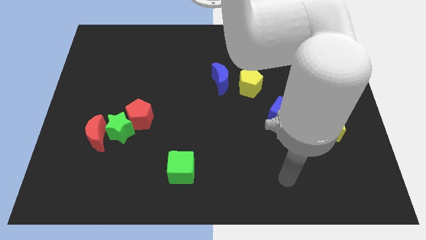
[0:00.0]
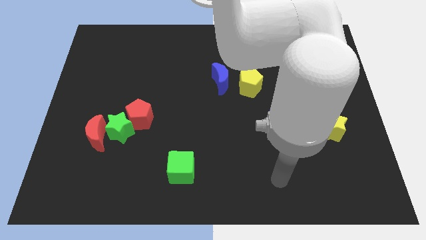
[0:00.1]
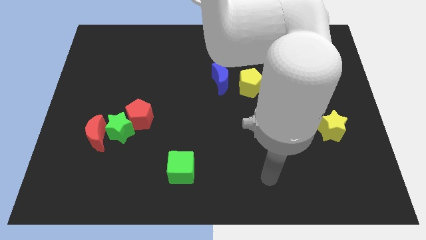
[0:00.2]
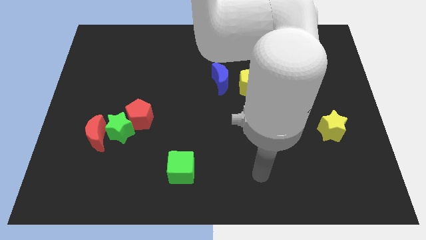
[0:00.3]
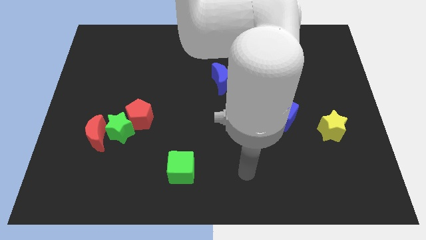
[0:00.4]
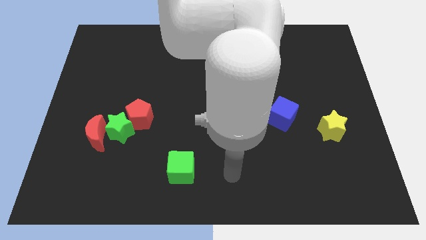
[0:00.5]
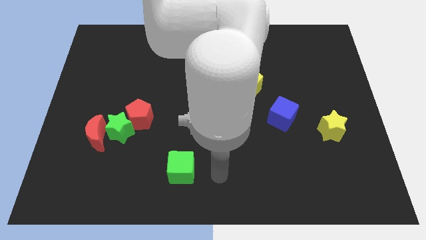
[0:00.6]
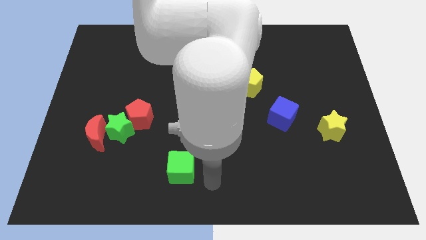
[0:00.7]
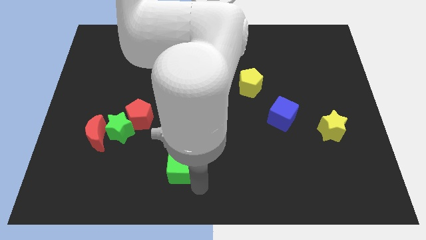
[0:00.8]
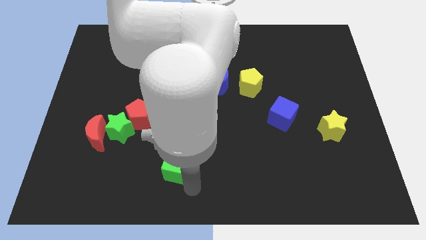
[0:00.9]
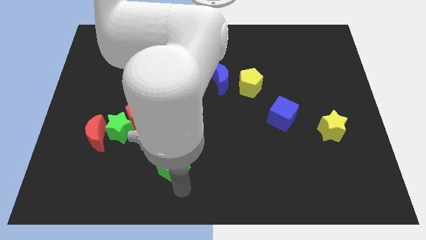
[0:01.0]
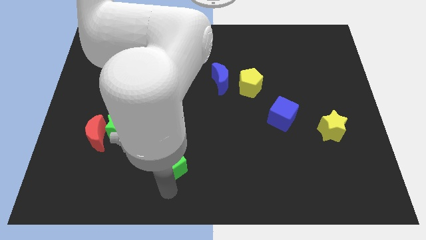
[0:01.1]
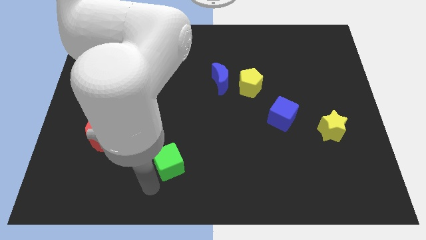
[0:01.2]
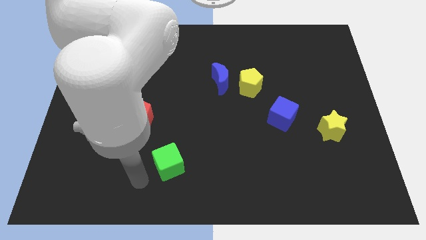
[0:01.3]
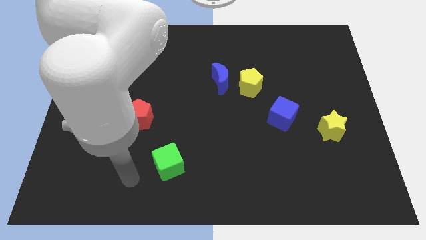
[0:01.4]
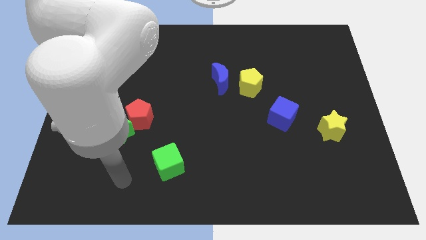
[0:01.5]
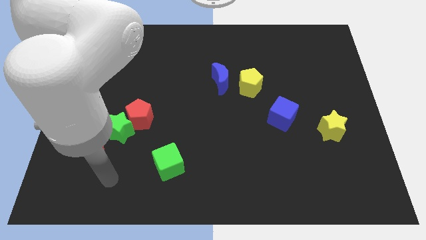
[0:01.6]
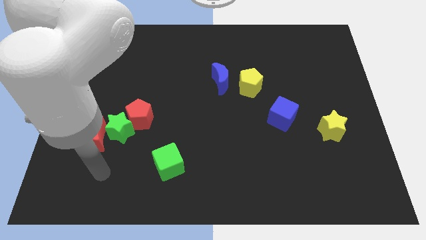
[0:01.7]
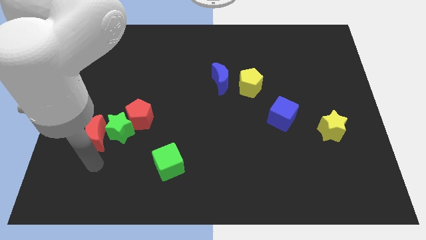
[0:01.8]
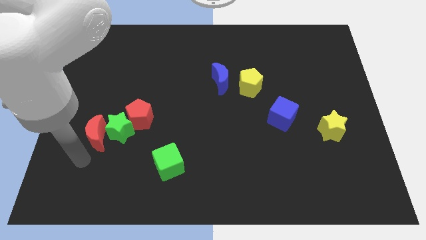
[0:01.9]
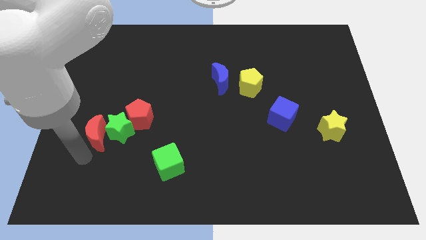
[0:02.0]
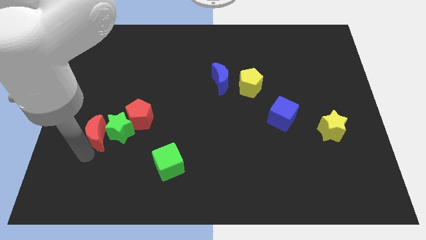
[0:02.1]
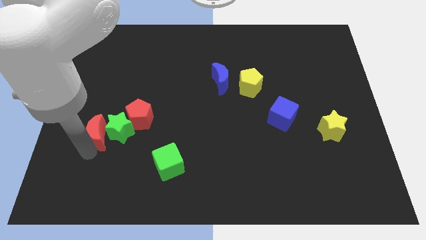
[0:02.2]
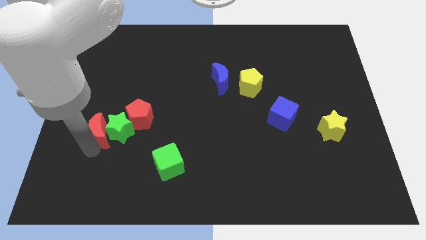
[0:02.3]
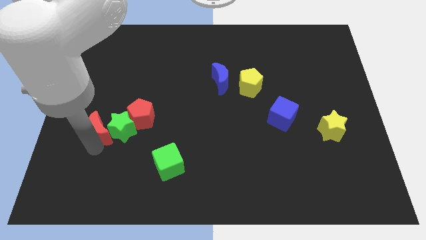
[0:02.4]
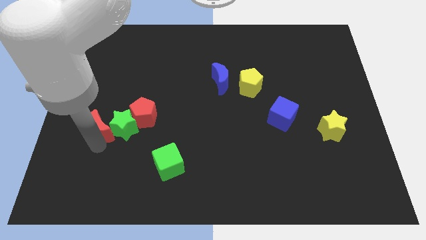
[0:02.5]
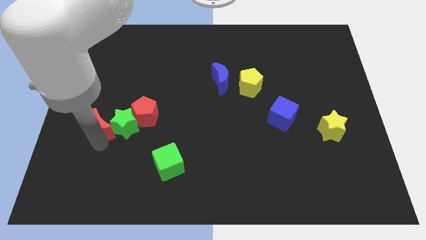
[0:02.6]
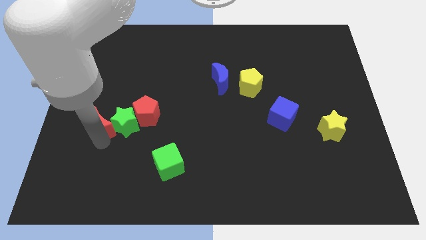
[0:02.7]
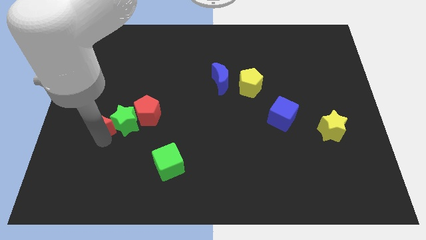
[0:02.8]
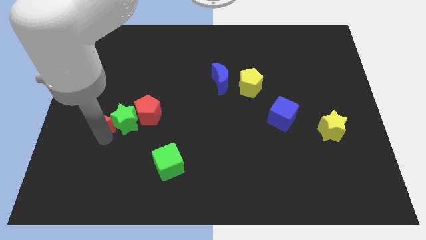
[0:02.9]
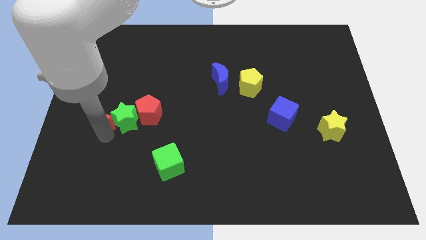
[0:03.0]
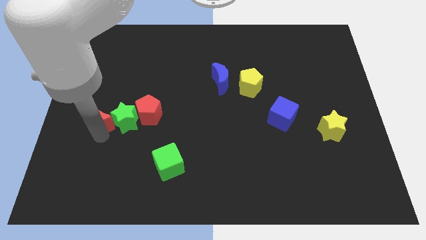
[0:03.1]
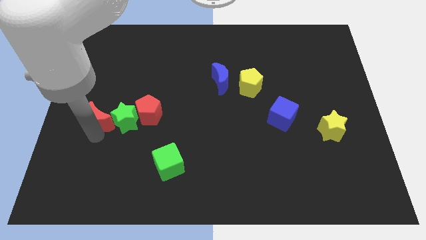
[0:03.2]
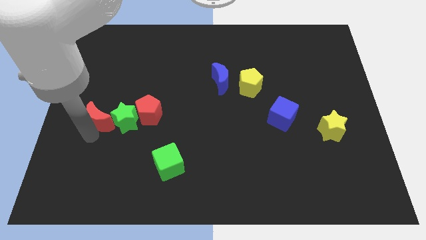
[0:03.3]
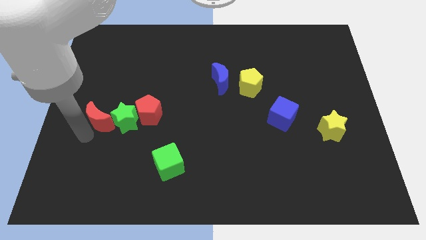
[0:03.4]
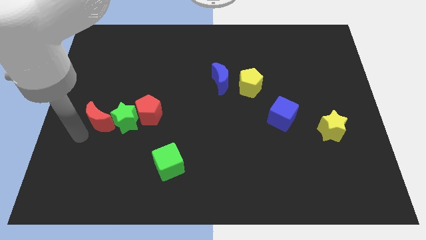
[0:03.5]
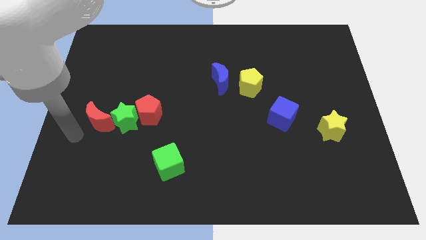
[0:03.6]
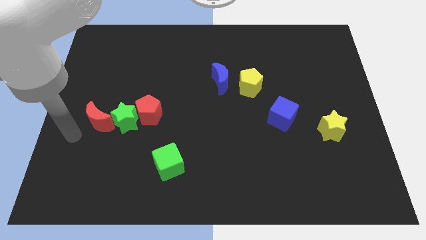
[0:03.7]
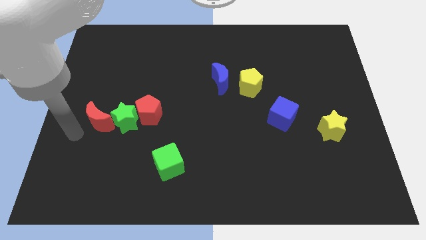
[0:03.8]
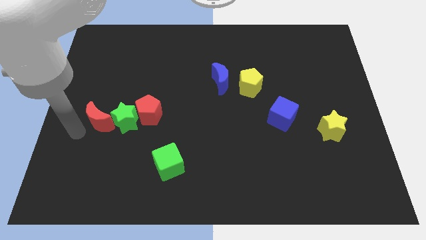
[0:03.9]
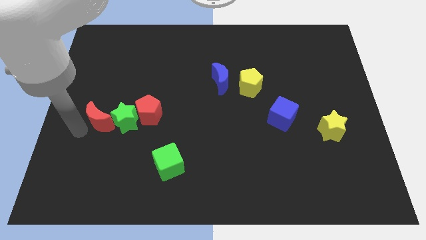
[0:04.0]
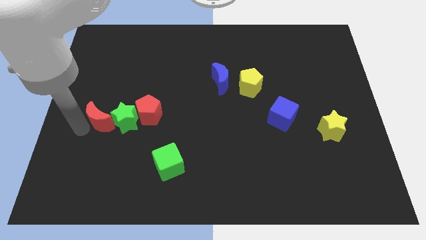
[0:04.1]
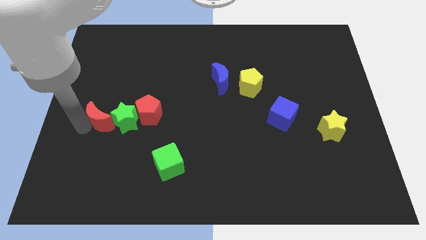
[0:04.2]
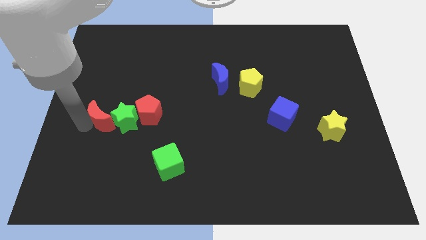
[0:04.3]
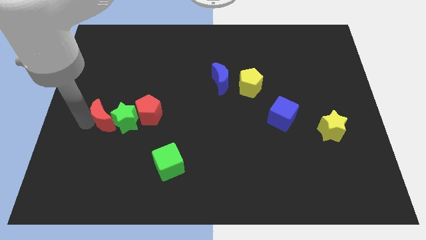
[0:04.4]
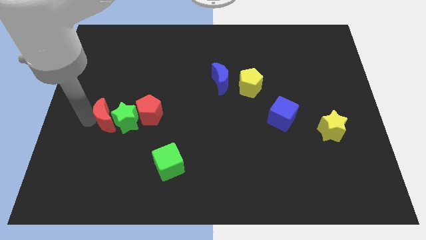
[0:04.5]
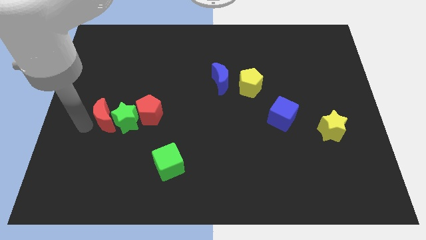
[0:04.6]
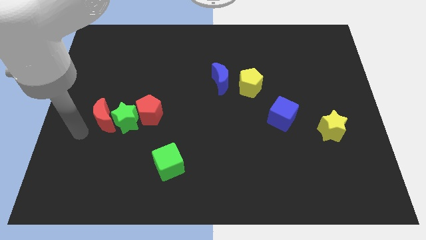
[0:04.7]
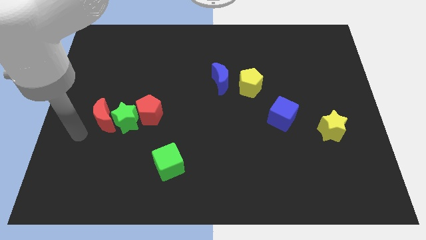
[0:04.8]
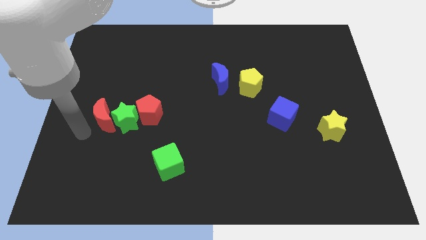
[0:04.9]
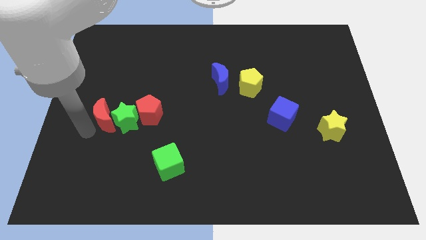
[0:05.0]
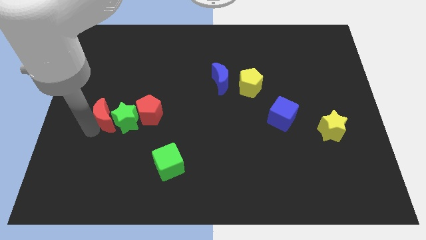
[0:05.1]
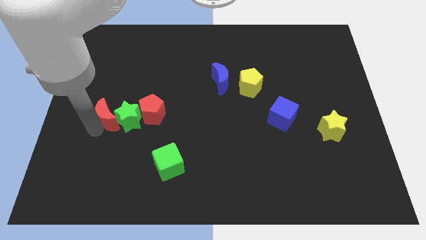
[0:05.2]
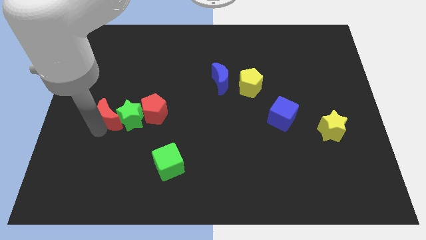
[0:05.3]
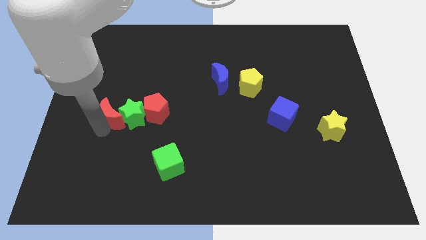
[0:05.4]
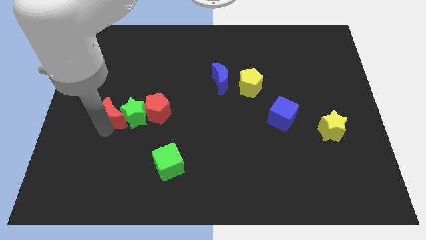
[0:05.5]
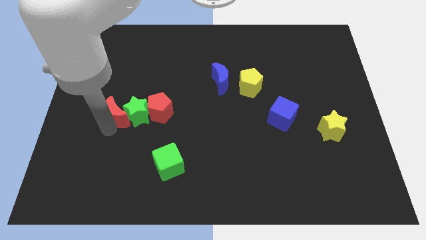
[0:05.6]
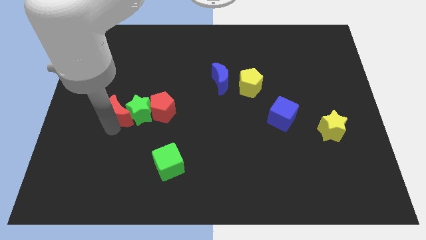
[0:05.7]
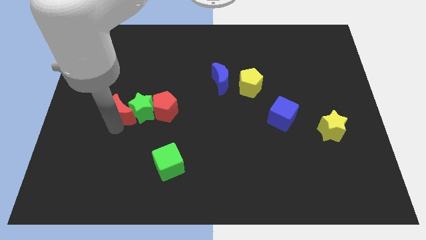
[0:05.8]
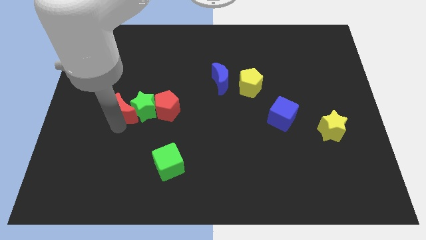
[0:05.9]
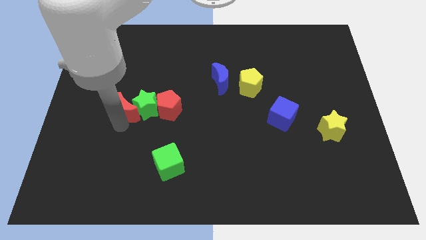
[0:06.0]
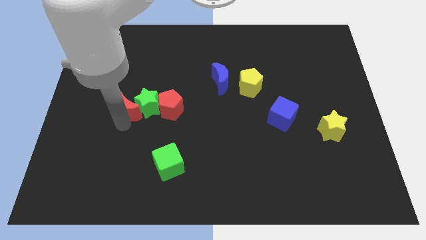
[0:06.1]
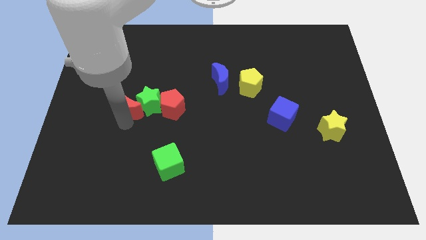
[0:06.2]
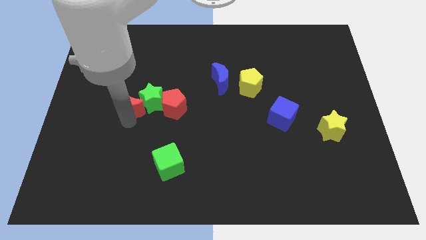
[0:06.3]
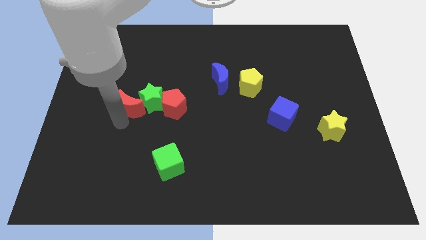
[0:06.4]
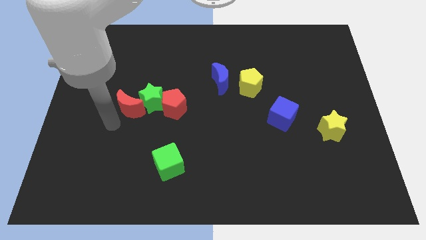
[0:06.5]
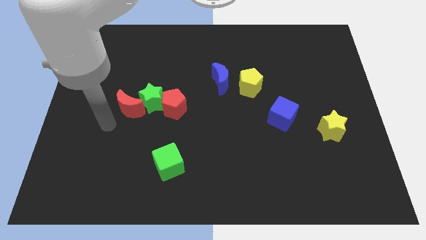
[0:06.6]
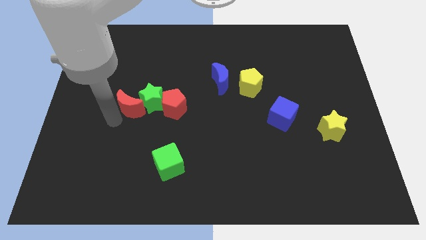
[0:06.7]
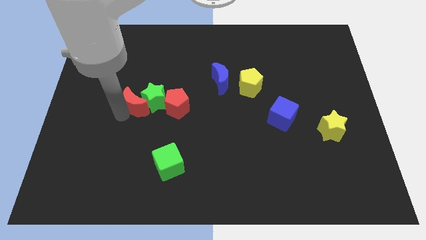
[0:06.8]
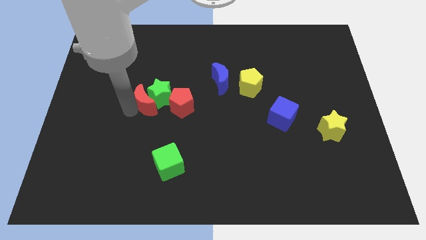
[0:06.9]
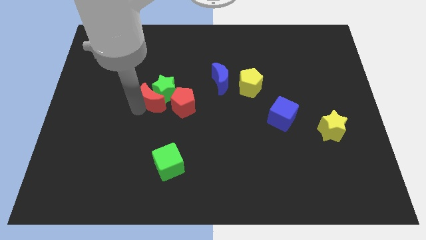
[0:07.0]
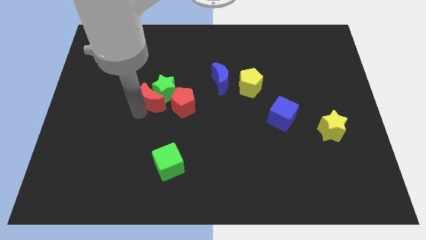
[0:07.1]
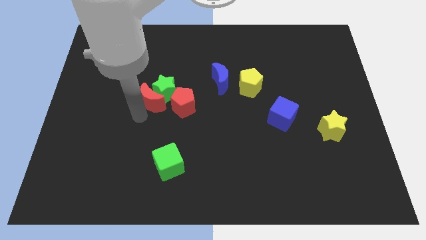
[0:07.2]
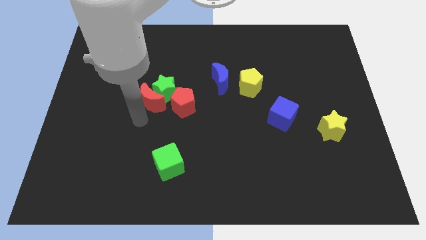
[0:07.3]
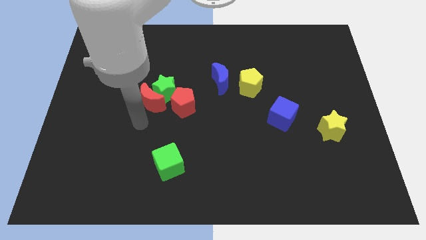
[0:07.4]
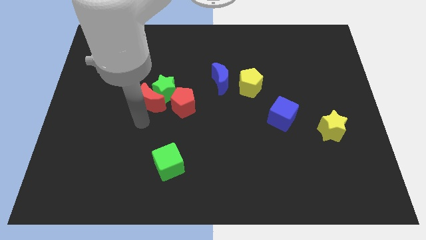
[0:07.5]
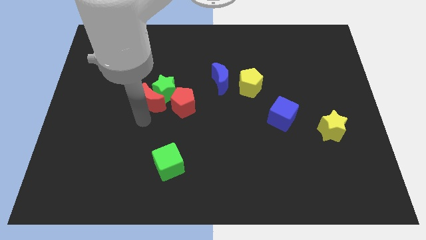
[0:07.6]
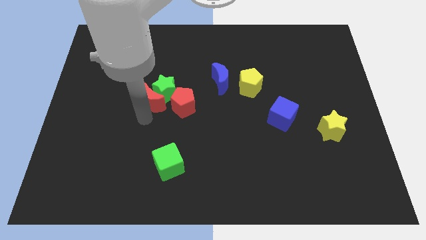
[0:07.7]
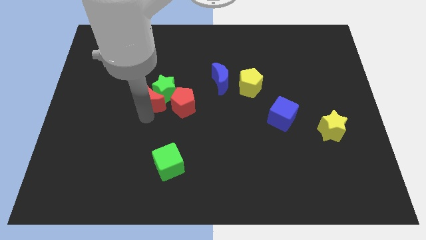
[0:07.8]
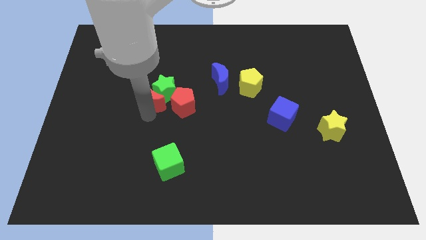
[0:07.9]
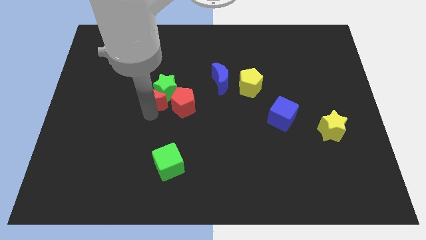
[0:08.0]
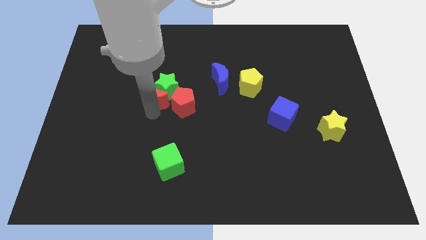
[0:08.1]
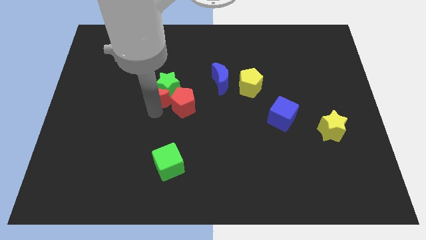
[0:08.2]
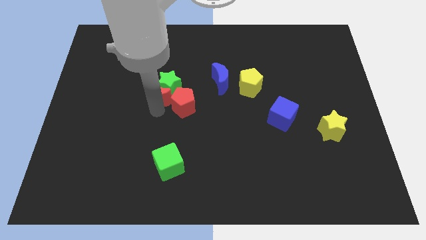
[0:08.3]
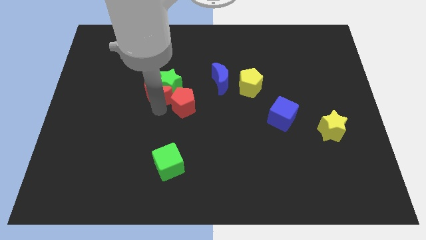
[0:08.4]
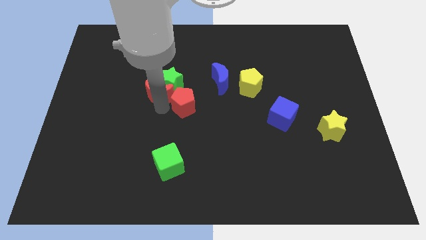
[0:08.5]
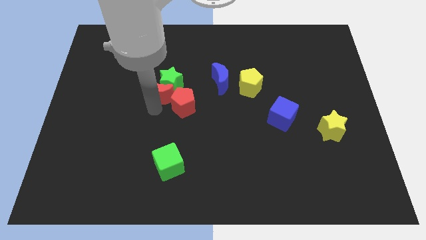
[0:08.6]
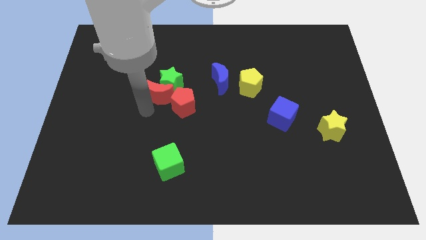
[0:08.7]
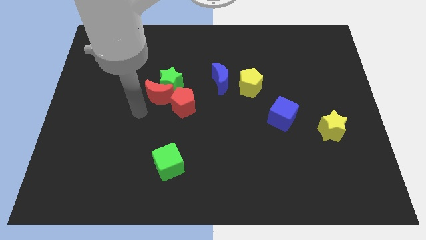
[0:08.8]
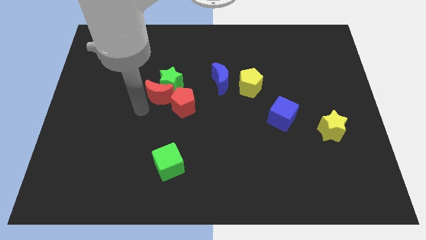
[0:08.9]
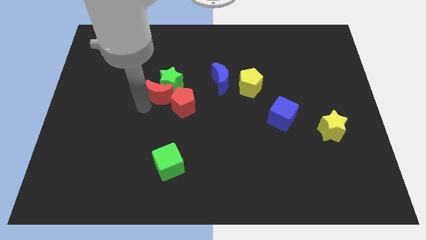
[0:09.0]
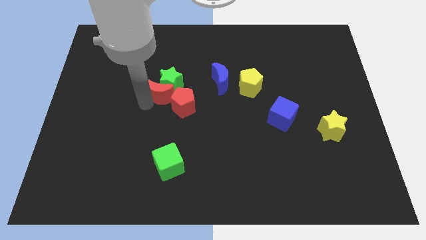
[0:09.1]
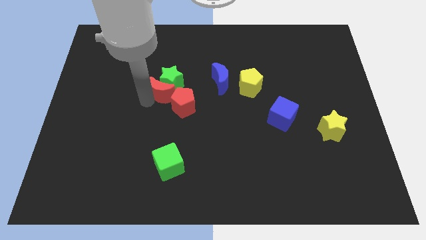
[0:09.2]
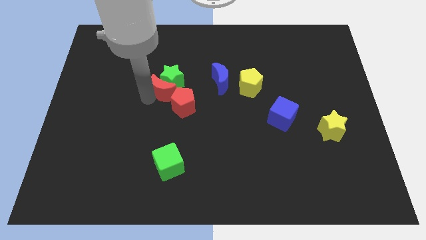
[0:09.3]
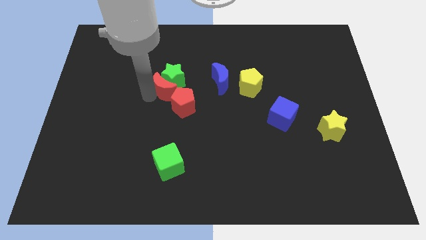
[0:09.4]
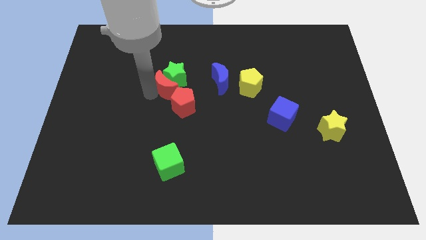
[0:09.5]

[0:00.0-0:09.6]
move the red moon diagonally upwards and to the right
